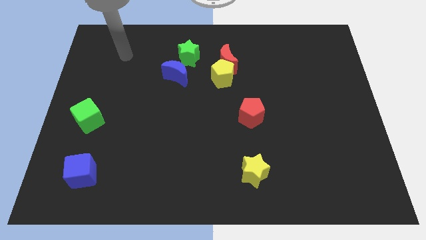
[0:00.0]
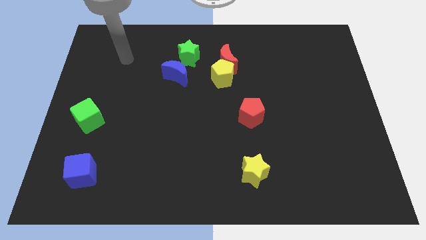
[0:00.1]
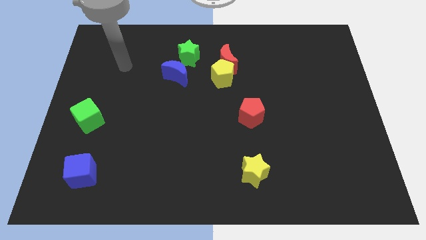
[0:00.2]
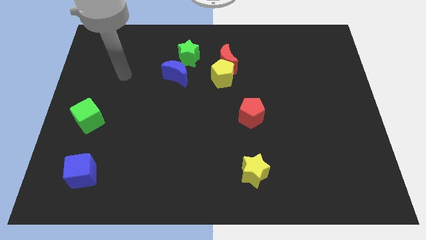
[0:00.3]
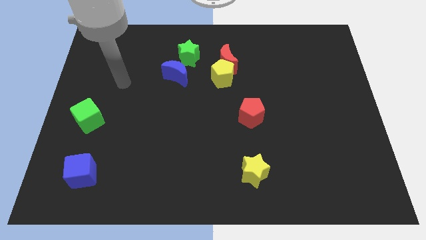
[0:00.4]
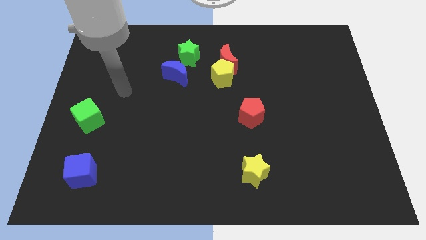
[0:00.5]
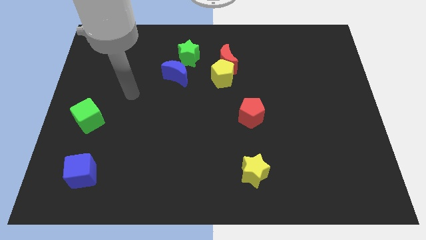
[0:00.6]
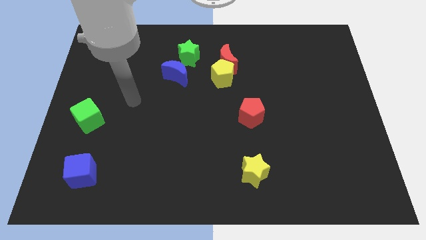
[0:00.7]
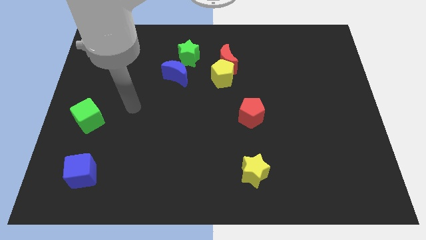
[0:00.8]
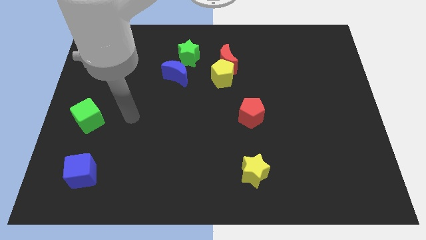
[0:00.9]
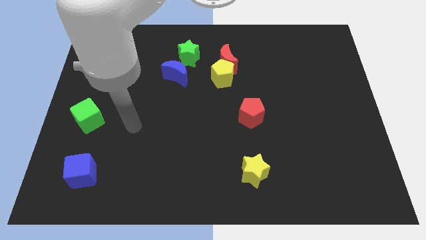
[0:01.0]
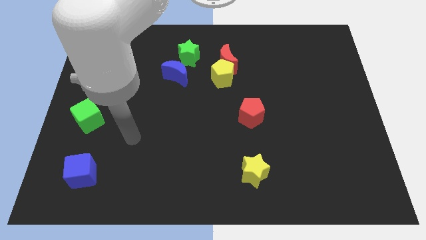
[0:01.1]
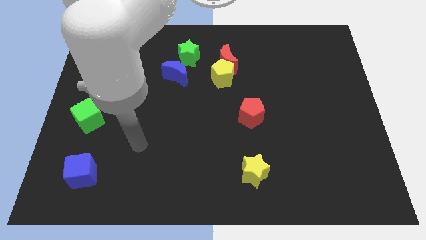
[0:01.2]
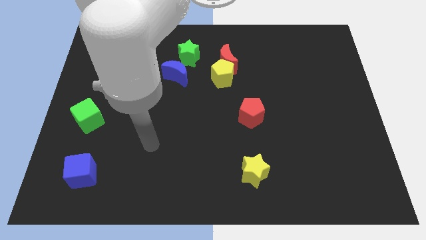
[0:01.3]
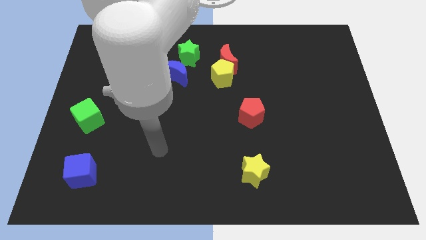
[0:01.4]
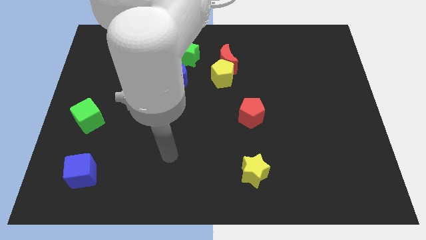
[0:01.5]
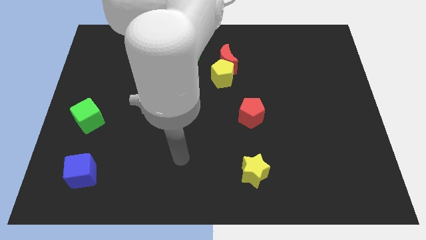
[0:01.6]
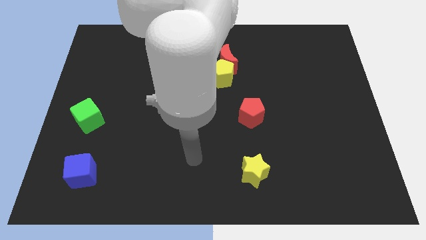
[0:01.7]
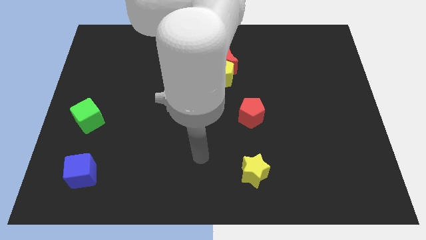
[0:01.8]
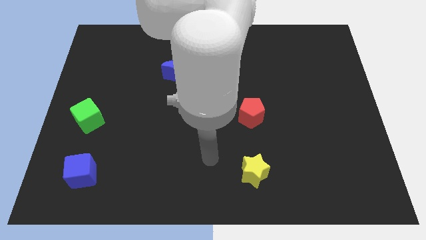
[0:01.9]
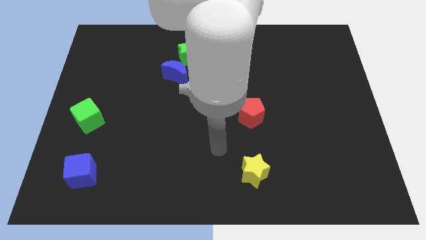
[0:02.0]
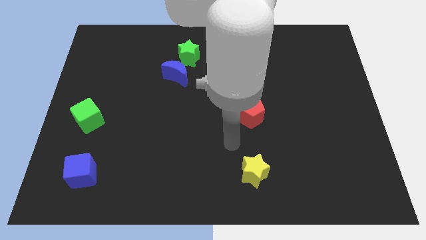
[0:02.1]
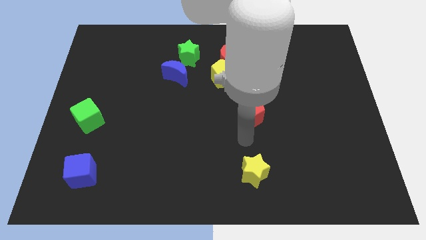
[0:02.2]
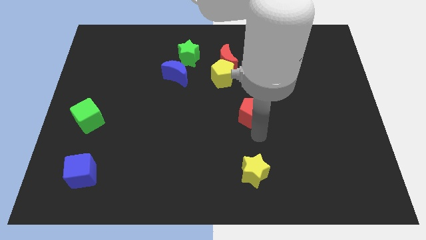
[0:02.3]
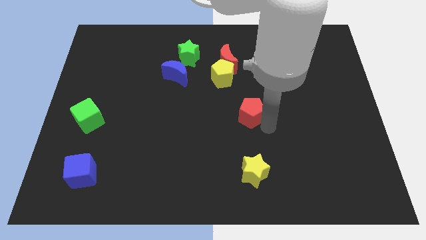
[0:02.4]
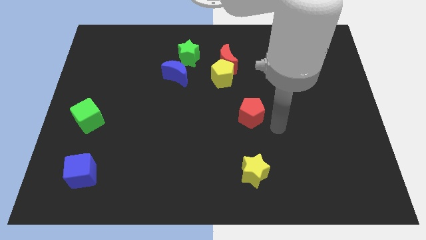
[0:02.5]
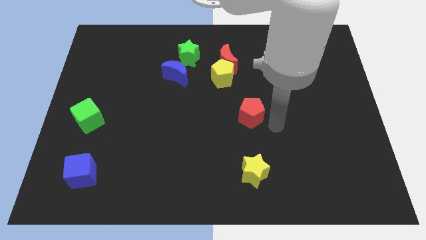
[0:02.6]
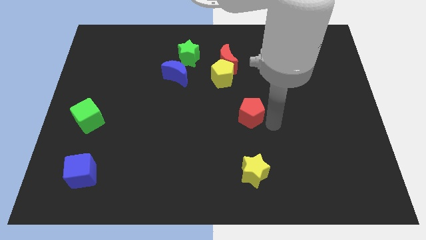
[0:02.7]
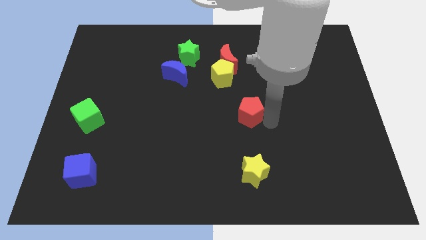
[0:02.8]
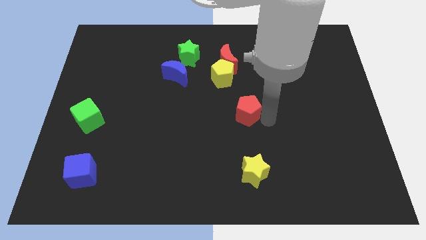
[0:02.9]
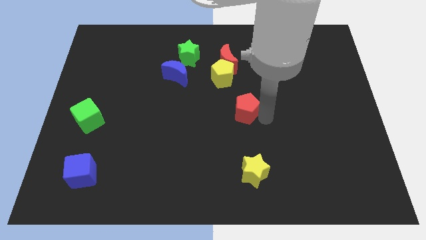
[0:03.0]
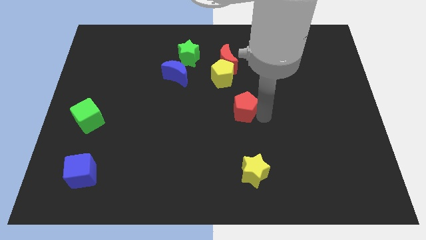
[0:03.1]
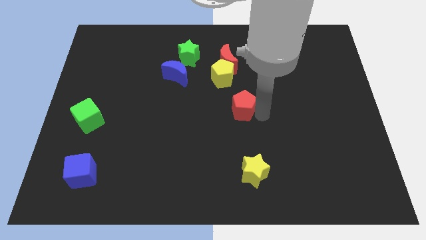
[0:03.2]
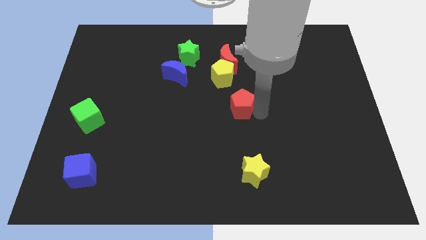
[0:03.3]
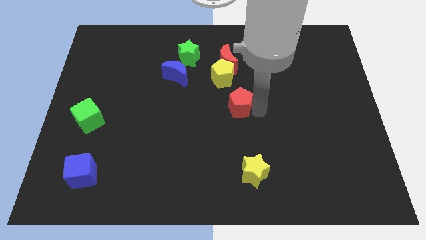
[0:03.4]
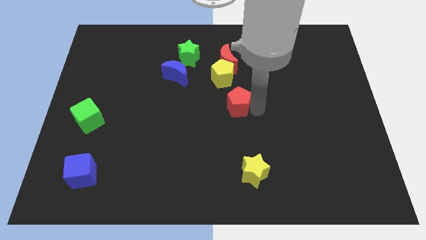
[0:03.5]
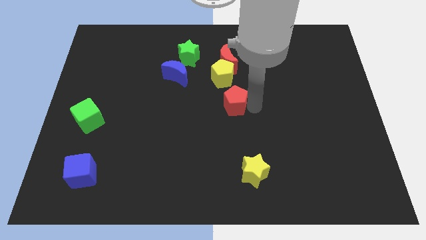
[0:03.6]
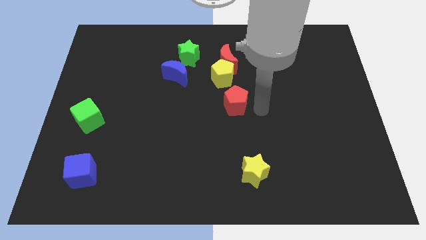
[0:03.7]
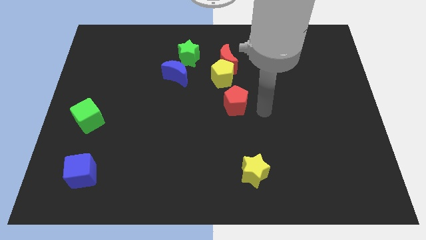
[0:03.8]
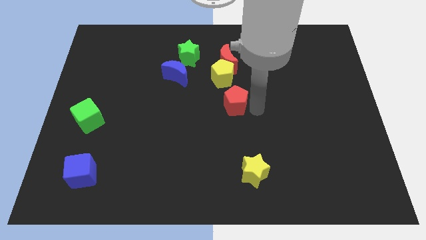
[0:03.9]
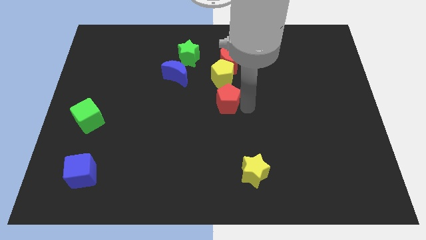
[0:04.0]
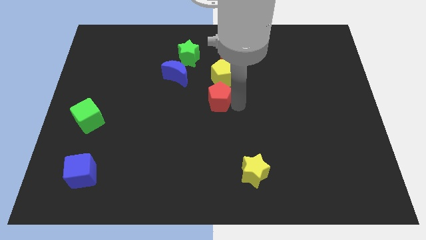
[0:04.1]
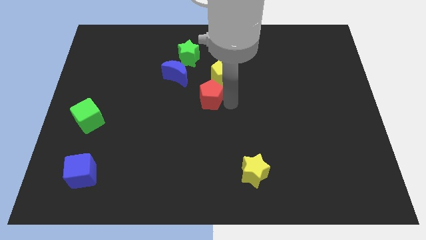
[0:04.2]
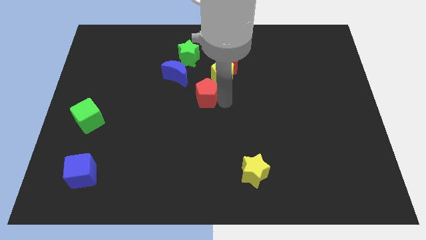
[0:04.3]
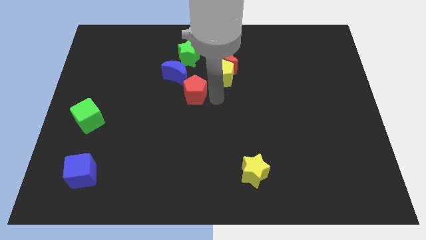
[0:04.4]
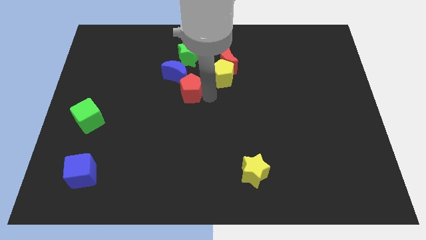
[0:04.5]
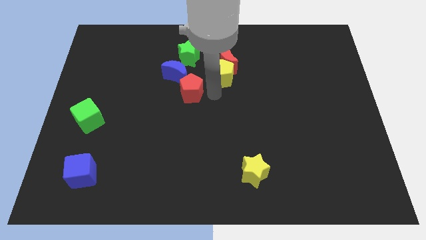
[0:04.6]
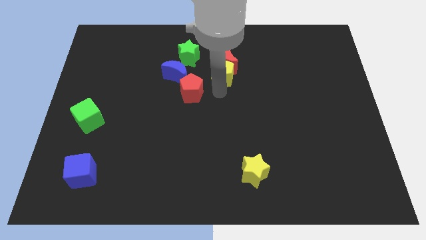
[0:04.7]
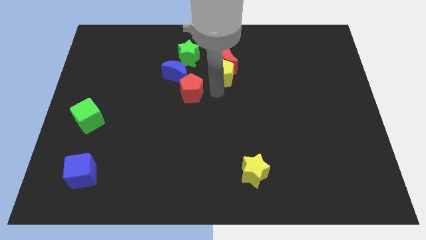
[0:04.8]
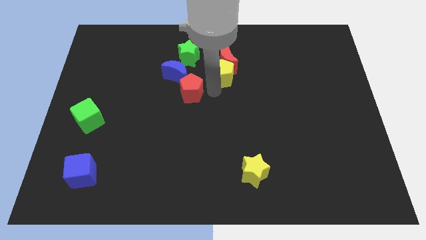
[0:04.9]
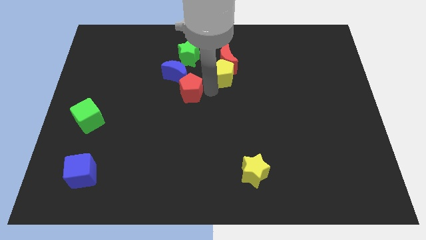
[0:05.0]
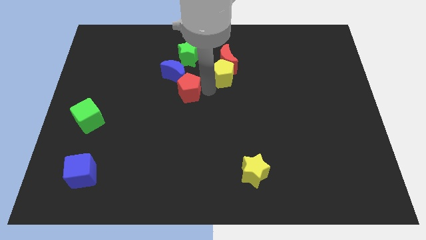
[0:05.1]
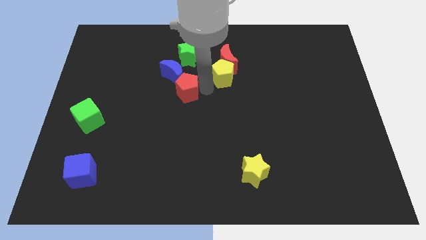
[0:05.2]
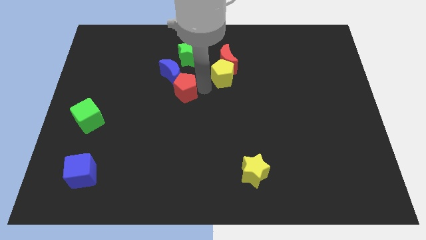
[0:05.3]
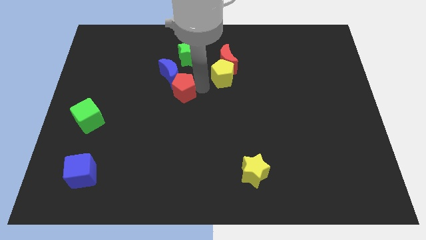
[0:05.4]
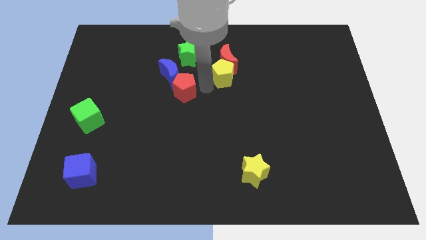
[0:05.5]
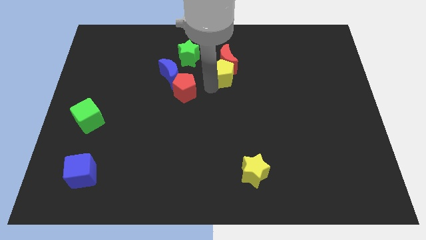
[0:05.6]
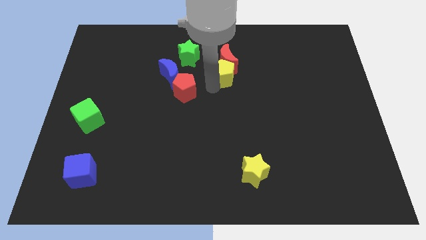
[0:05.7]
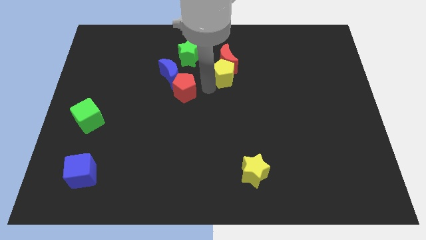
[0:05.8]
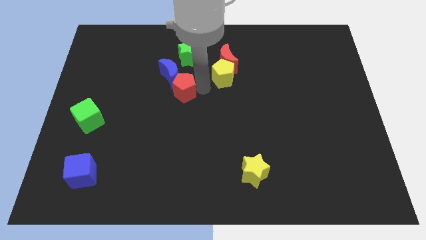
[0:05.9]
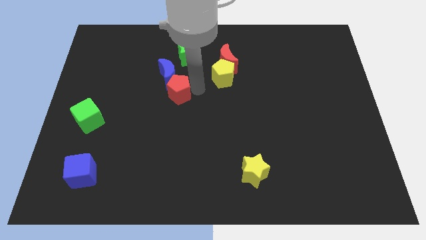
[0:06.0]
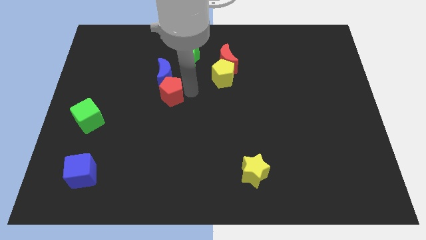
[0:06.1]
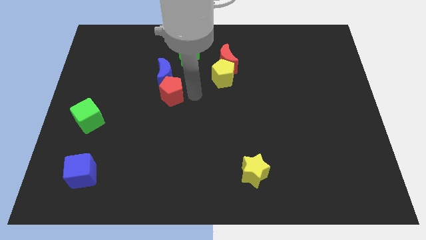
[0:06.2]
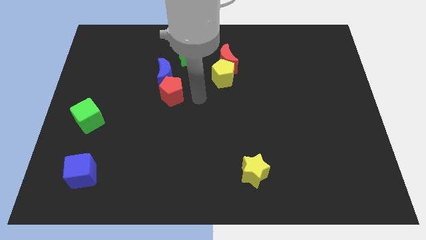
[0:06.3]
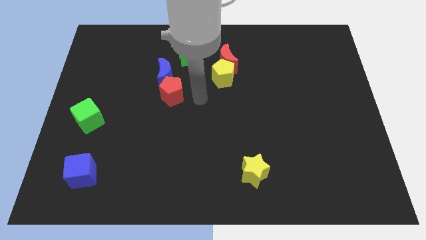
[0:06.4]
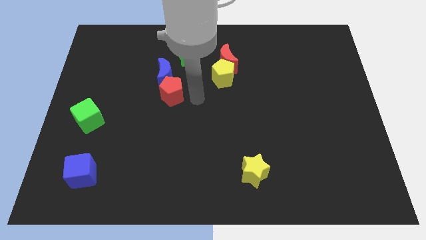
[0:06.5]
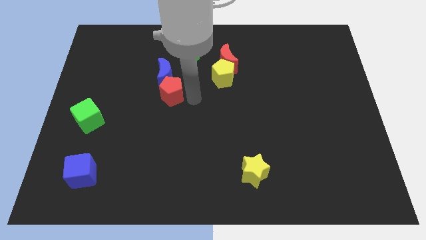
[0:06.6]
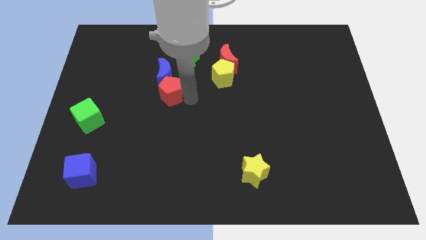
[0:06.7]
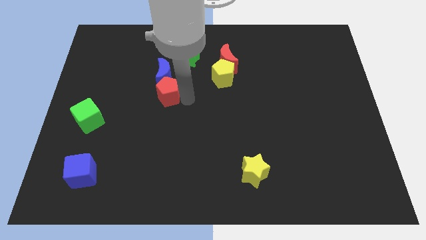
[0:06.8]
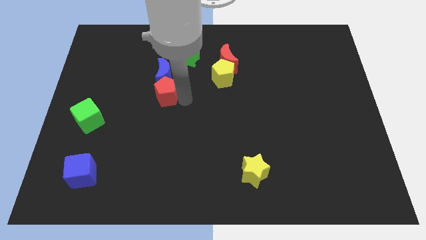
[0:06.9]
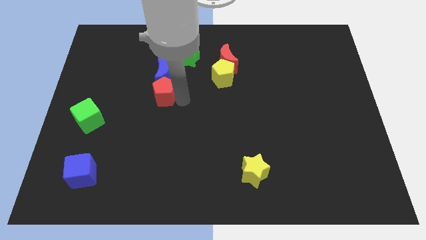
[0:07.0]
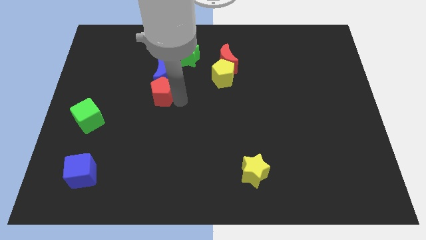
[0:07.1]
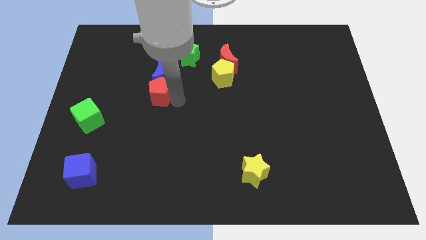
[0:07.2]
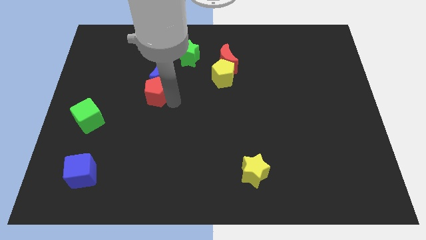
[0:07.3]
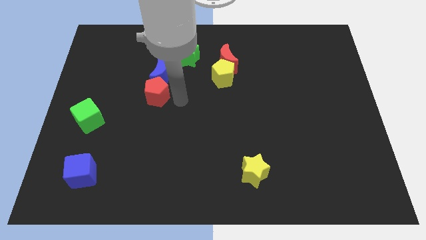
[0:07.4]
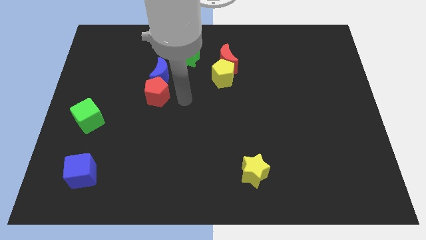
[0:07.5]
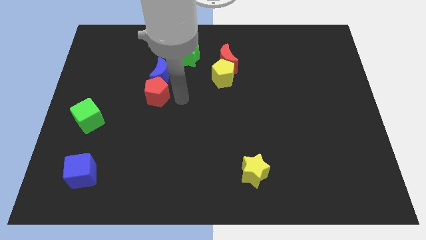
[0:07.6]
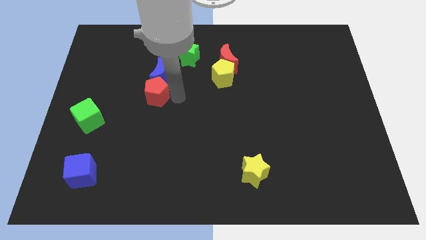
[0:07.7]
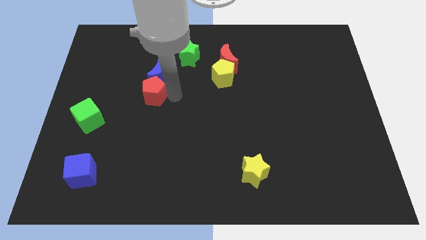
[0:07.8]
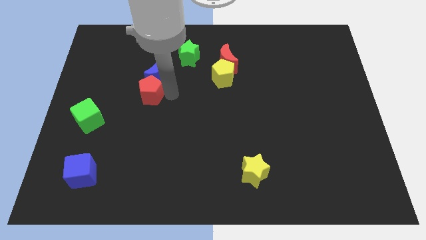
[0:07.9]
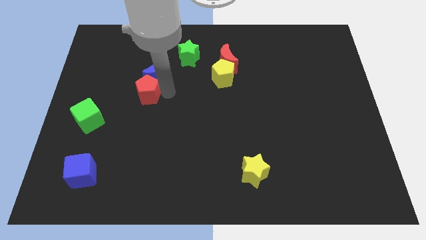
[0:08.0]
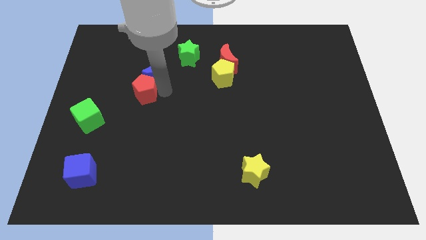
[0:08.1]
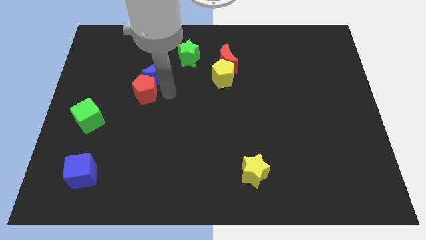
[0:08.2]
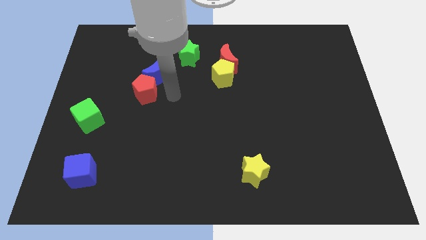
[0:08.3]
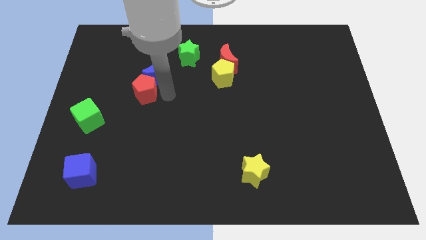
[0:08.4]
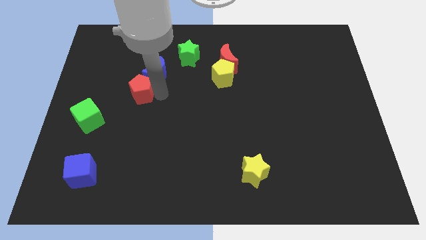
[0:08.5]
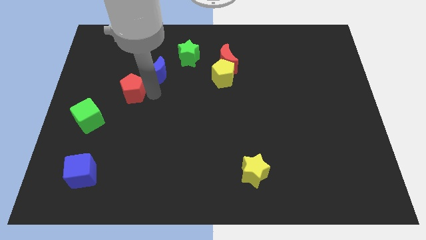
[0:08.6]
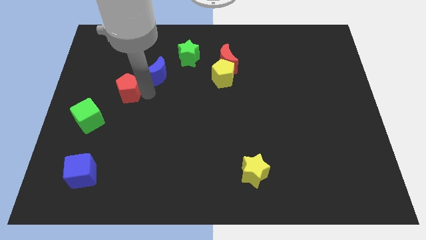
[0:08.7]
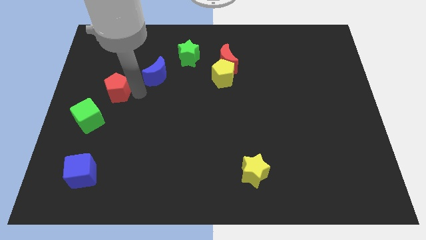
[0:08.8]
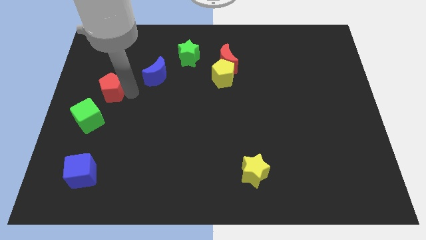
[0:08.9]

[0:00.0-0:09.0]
slide the red pentagon to the top side of the green cube
